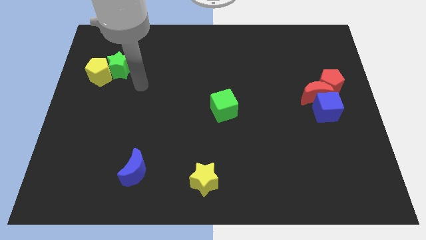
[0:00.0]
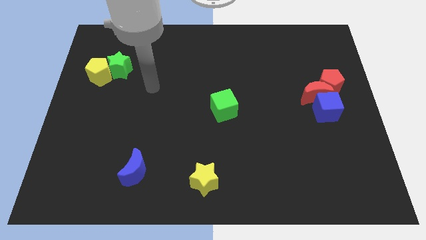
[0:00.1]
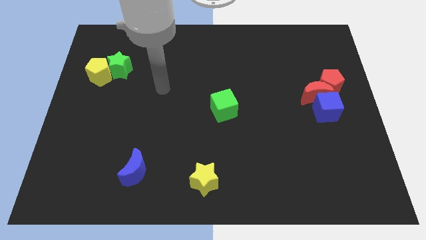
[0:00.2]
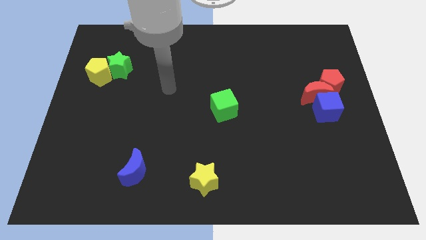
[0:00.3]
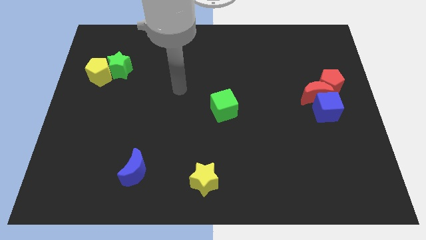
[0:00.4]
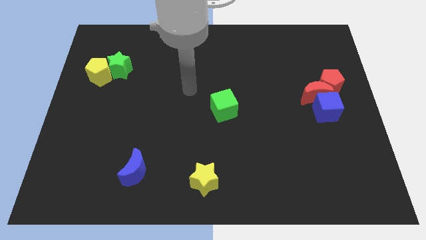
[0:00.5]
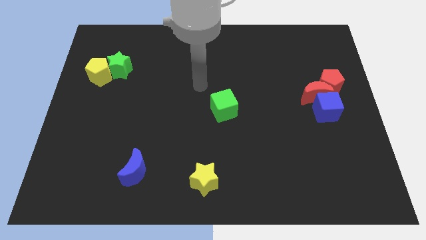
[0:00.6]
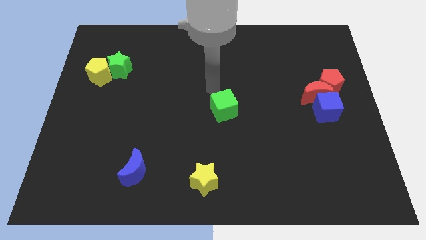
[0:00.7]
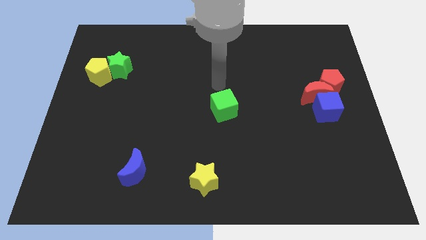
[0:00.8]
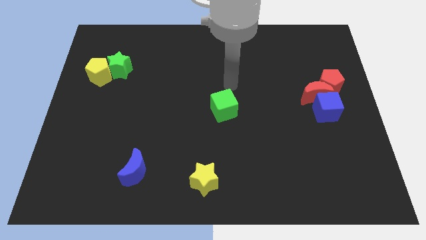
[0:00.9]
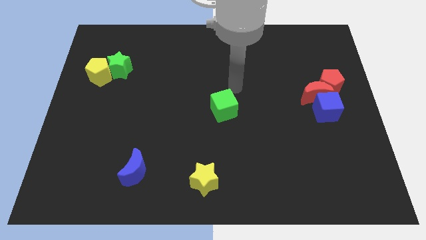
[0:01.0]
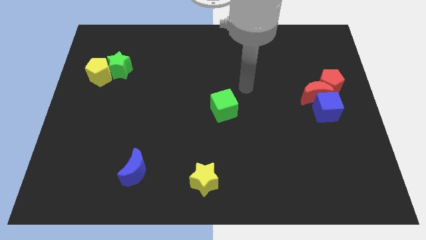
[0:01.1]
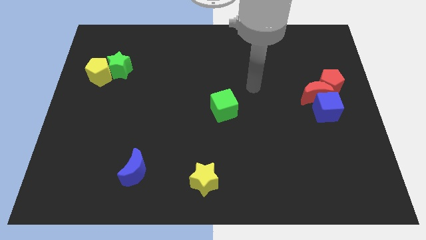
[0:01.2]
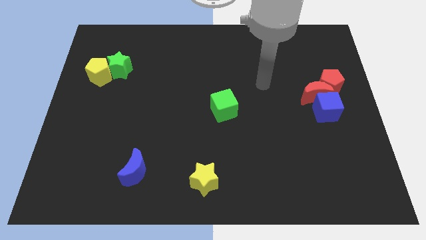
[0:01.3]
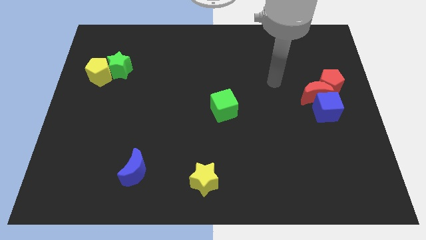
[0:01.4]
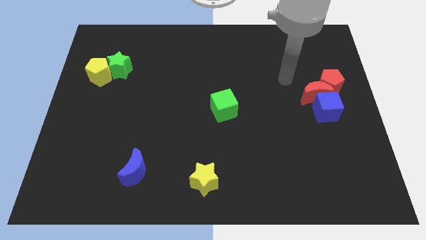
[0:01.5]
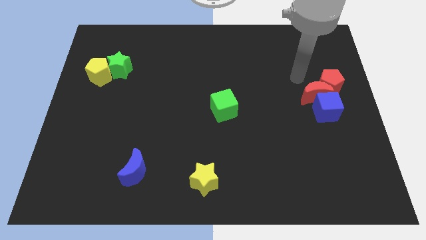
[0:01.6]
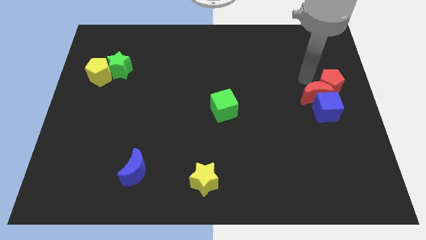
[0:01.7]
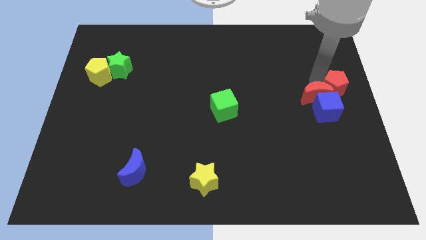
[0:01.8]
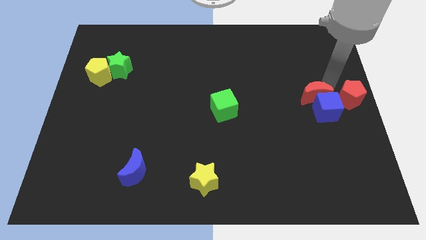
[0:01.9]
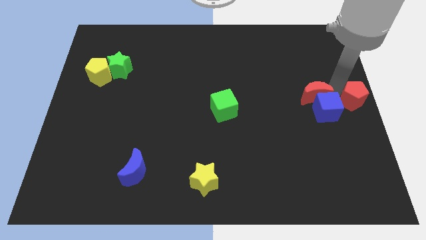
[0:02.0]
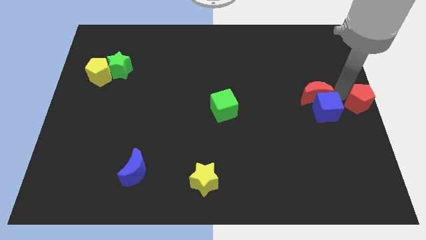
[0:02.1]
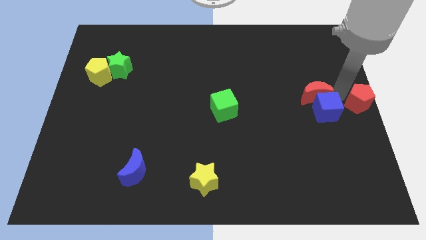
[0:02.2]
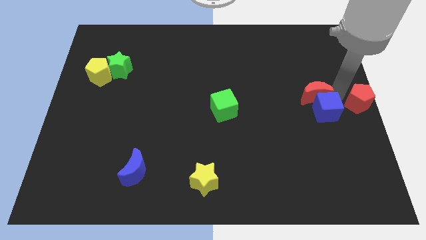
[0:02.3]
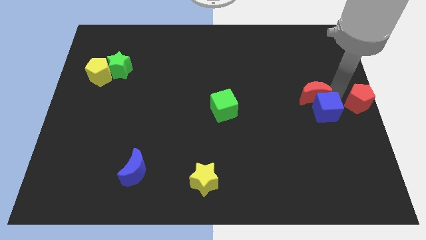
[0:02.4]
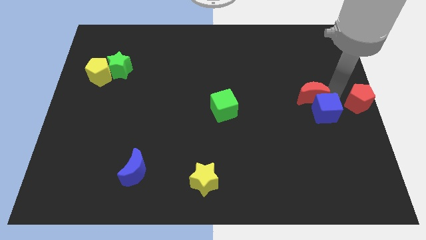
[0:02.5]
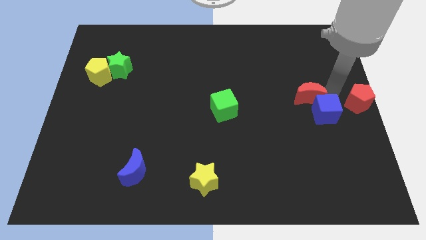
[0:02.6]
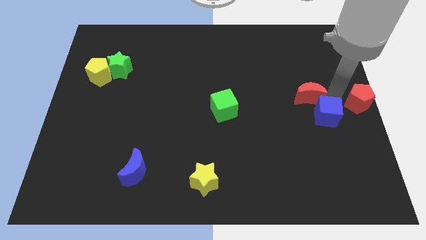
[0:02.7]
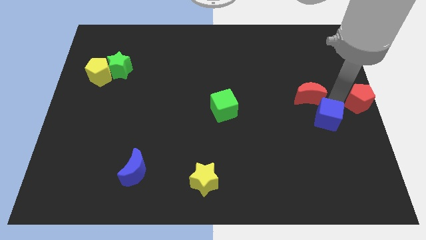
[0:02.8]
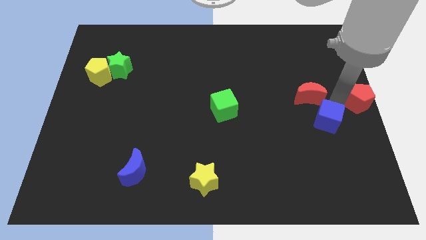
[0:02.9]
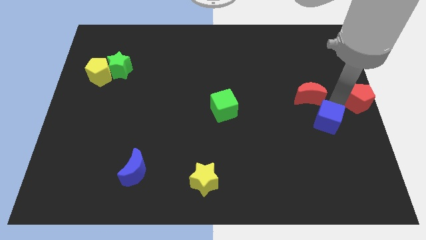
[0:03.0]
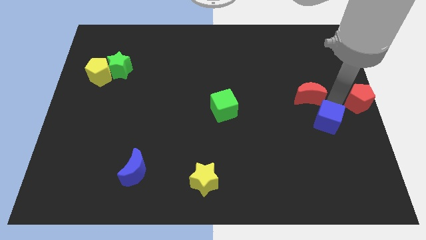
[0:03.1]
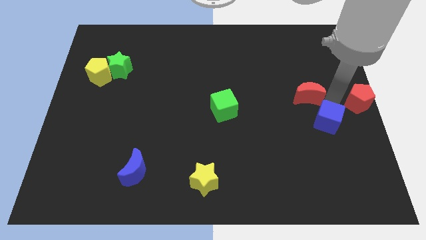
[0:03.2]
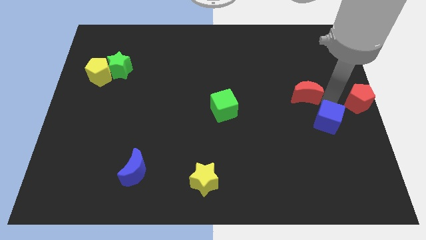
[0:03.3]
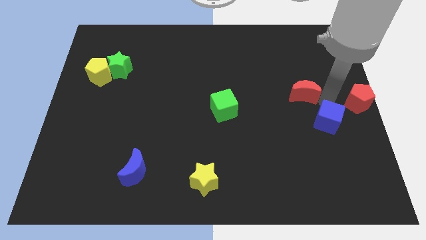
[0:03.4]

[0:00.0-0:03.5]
move the red moon away from the blue cube and red pentagon

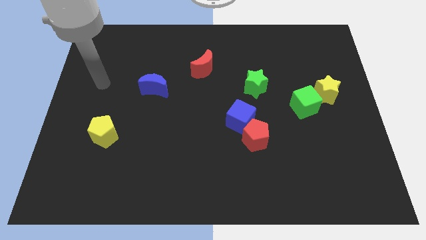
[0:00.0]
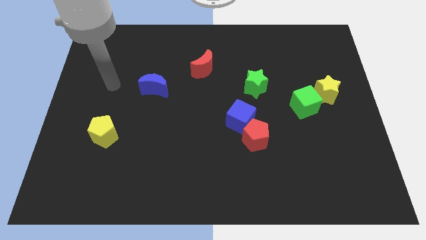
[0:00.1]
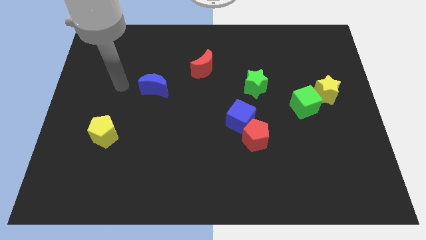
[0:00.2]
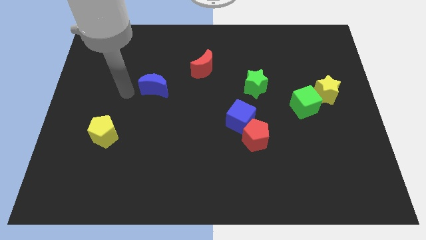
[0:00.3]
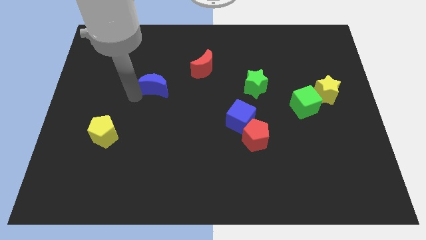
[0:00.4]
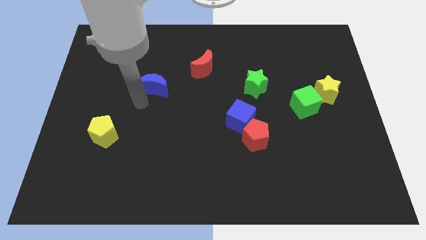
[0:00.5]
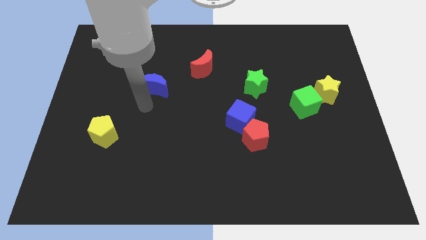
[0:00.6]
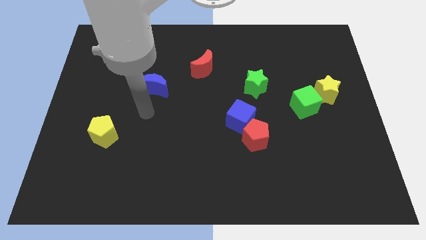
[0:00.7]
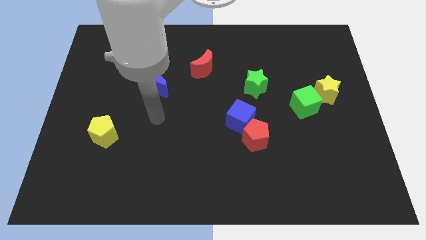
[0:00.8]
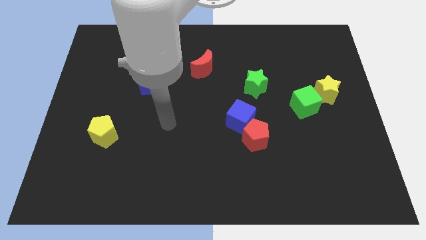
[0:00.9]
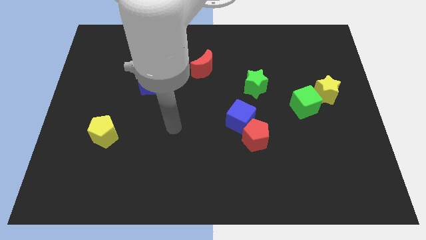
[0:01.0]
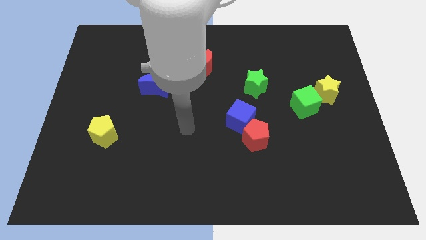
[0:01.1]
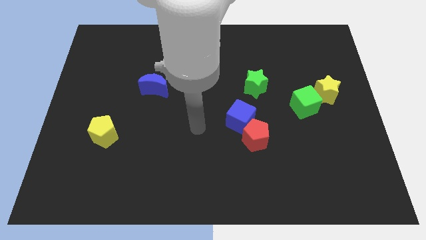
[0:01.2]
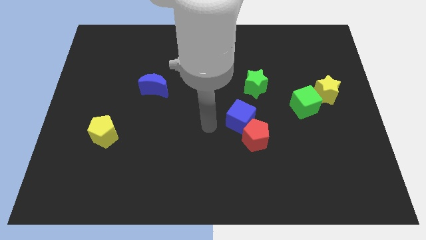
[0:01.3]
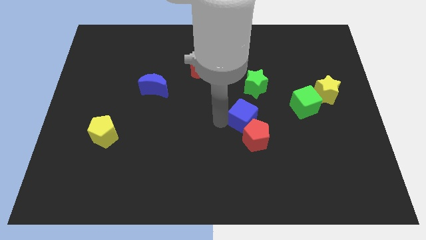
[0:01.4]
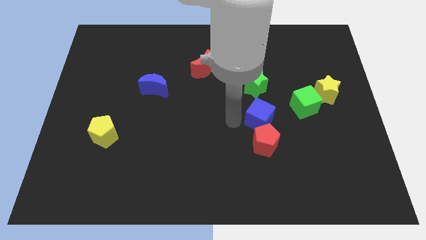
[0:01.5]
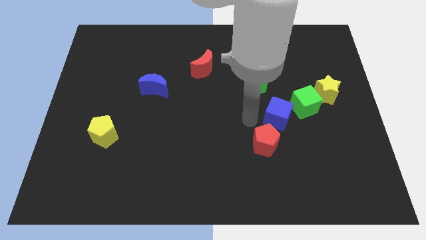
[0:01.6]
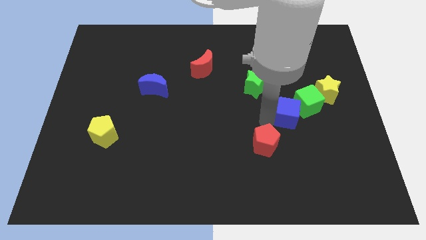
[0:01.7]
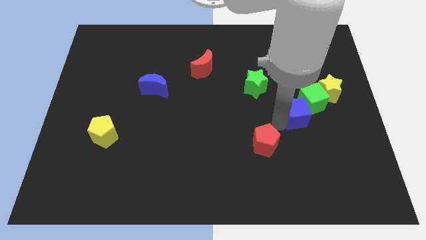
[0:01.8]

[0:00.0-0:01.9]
pull the red pentagon apart from the blue cube

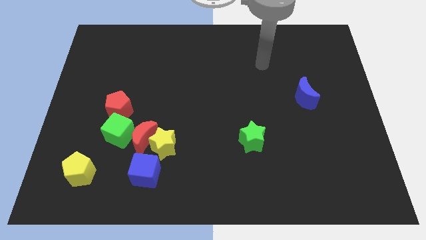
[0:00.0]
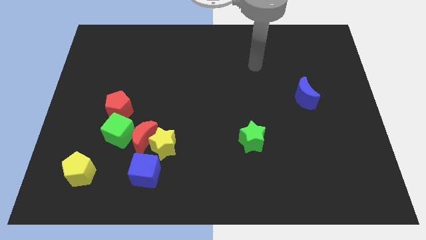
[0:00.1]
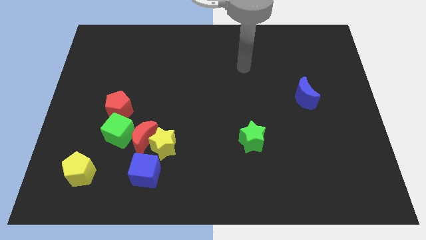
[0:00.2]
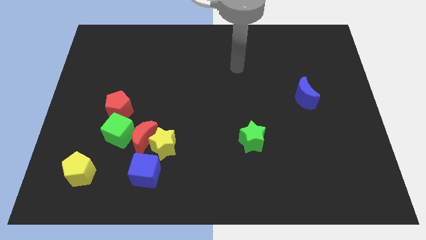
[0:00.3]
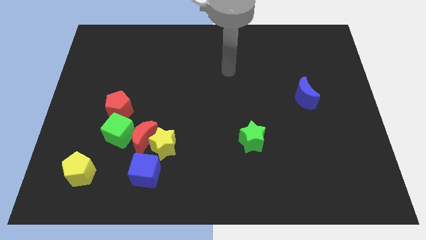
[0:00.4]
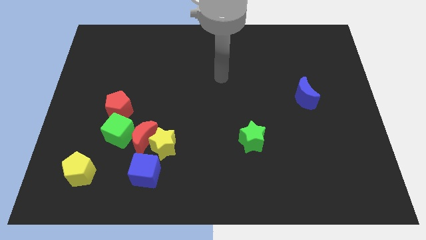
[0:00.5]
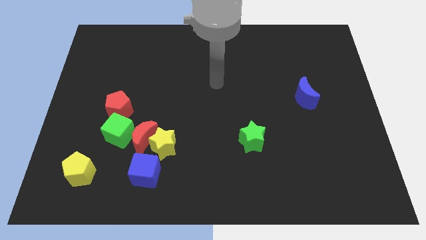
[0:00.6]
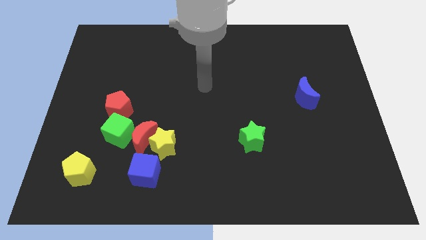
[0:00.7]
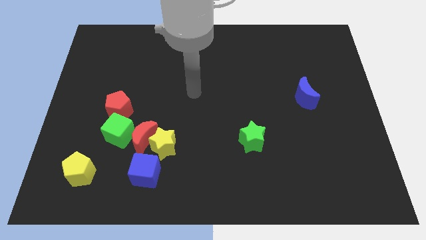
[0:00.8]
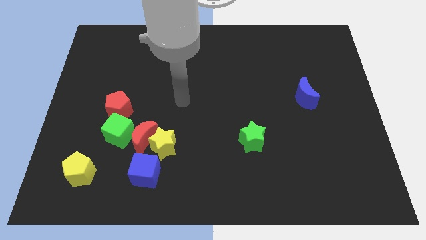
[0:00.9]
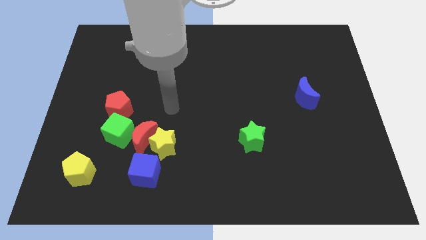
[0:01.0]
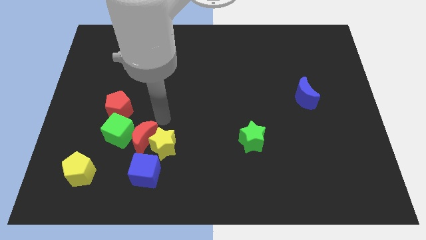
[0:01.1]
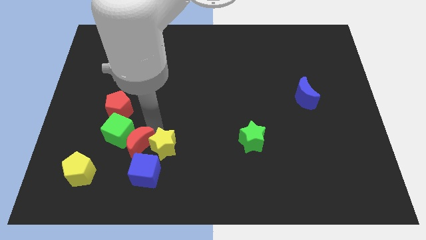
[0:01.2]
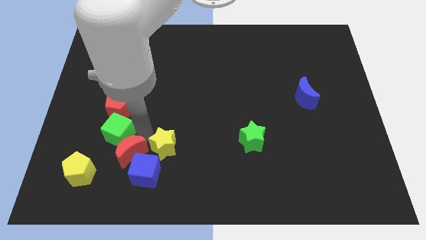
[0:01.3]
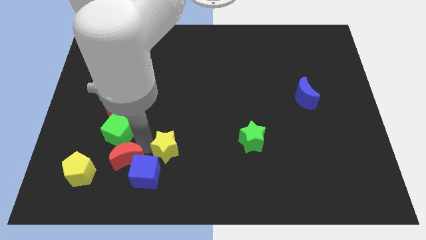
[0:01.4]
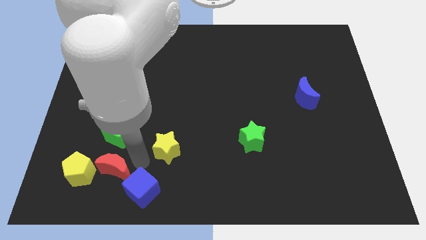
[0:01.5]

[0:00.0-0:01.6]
pull the yellow star apart from the red moon and blue cube

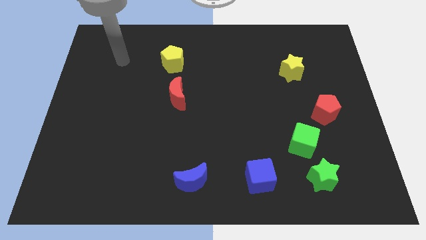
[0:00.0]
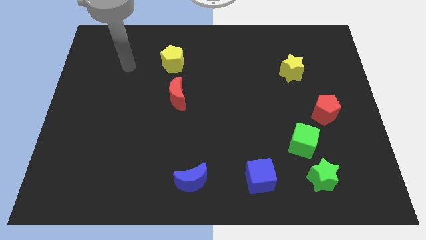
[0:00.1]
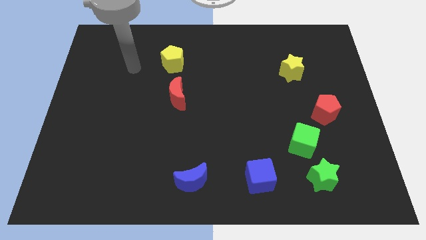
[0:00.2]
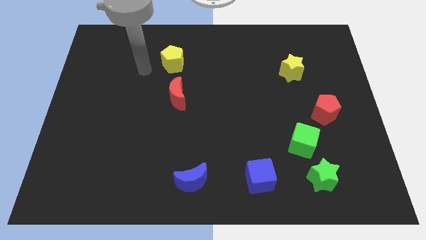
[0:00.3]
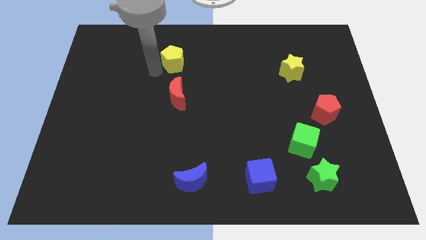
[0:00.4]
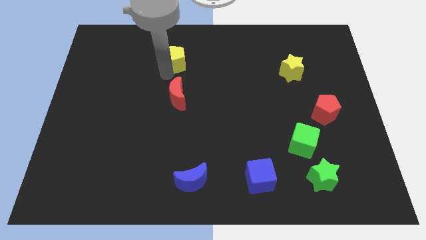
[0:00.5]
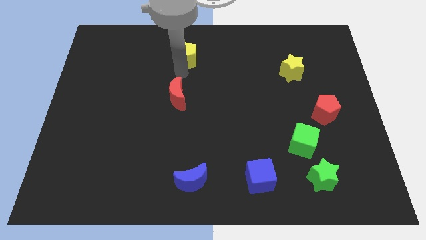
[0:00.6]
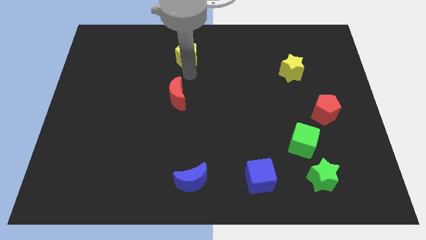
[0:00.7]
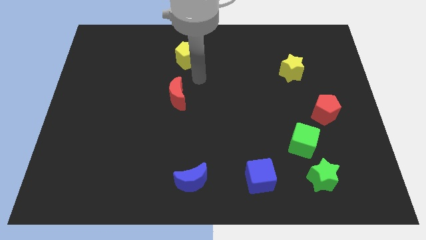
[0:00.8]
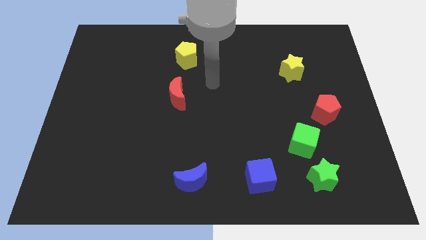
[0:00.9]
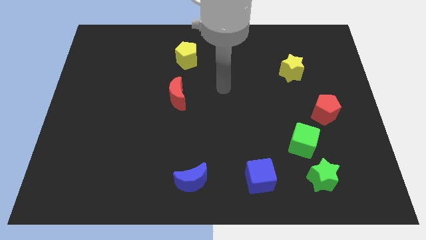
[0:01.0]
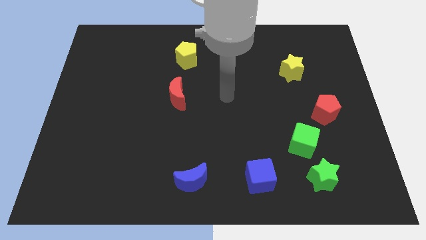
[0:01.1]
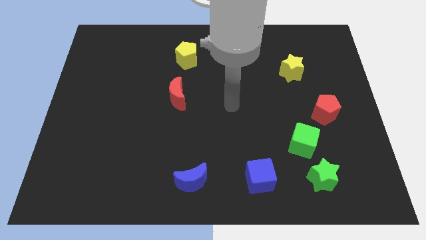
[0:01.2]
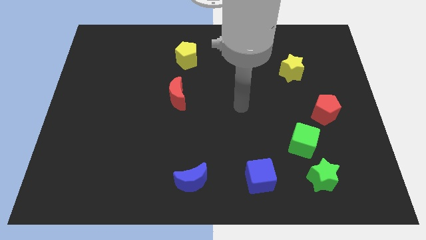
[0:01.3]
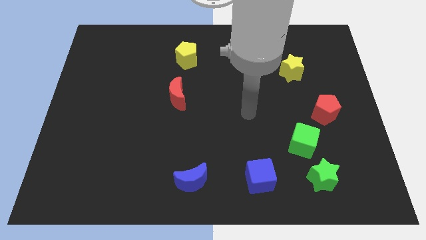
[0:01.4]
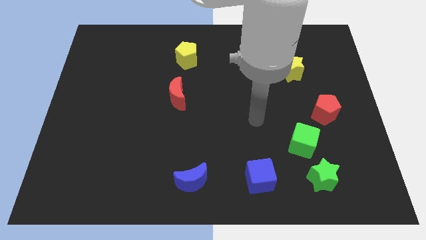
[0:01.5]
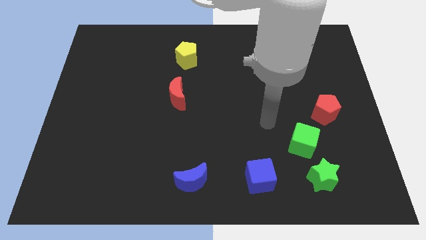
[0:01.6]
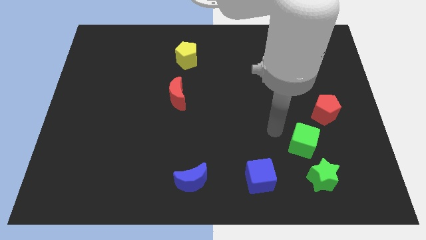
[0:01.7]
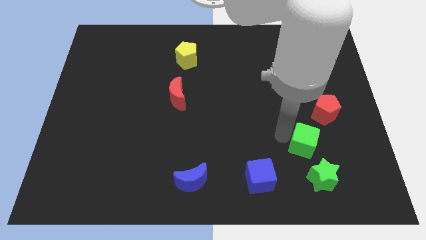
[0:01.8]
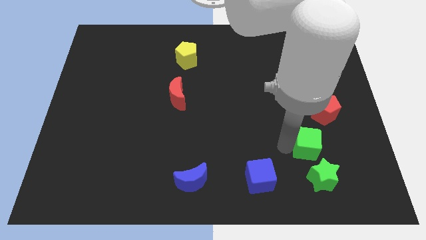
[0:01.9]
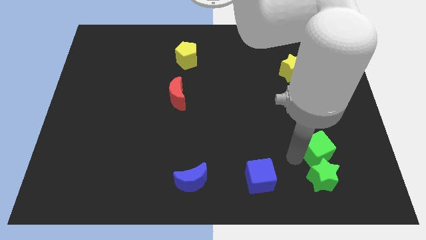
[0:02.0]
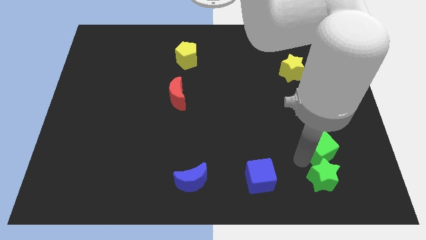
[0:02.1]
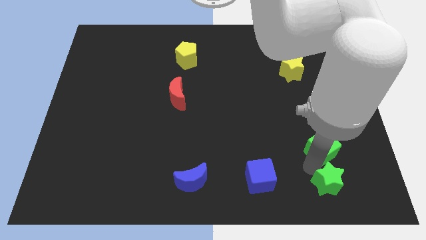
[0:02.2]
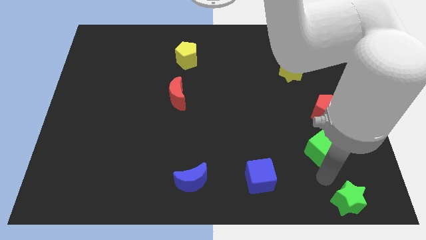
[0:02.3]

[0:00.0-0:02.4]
separate the green cube from the green star
